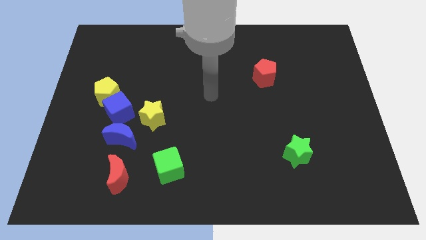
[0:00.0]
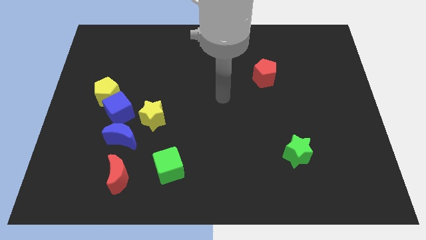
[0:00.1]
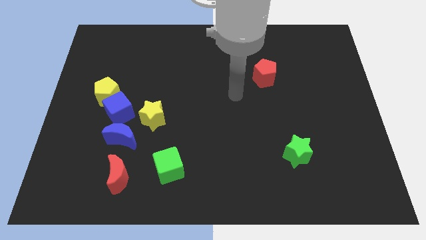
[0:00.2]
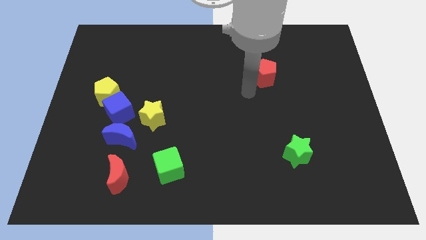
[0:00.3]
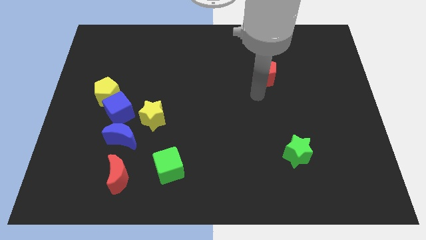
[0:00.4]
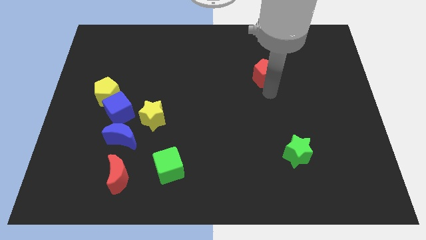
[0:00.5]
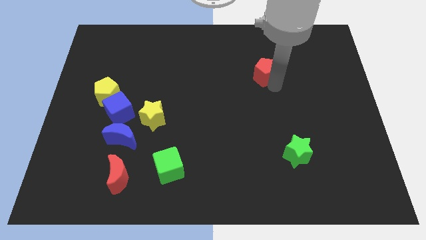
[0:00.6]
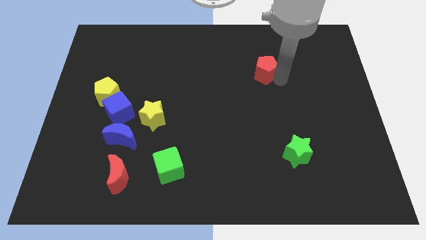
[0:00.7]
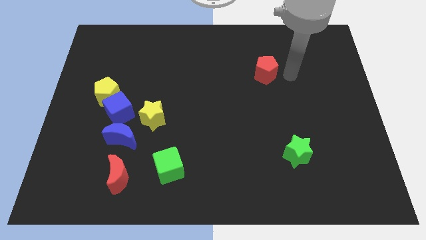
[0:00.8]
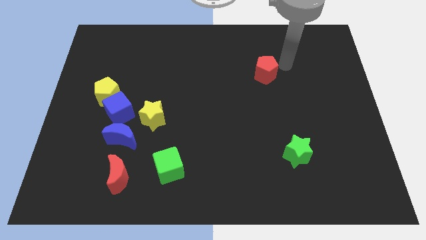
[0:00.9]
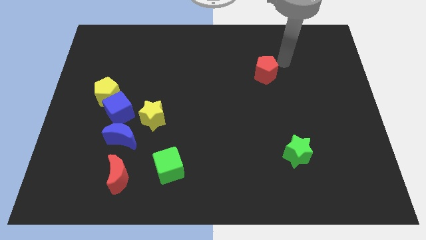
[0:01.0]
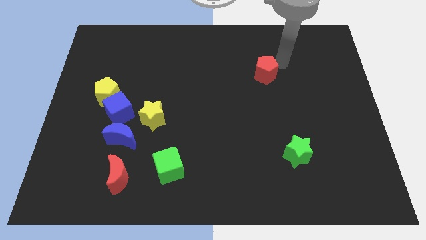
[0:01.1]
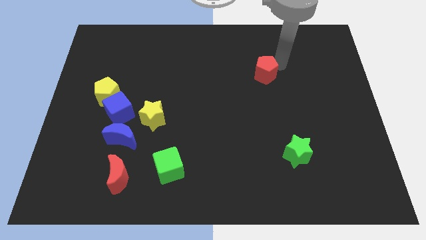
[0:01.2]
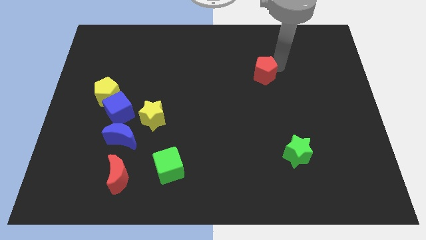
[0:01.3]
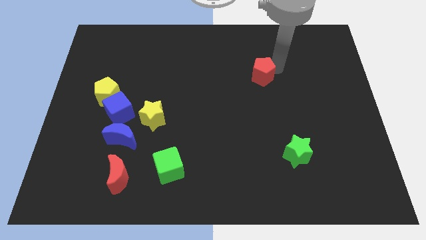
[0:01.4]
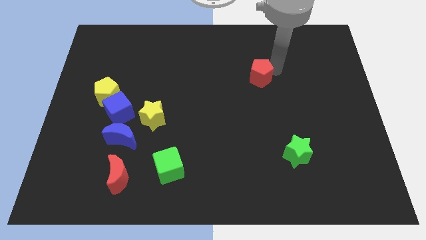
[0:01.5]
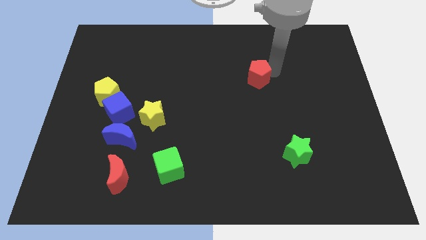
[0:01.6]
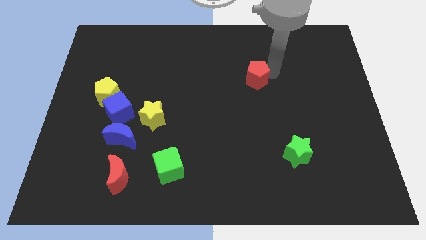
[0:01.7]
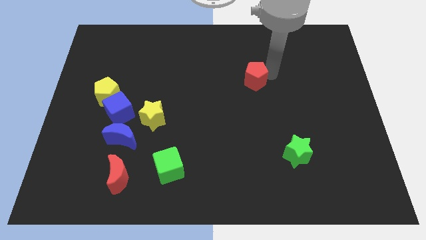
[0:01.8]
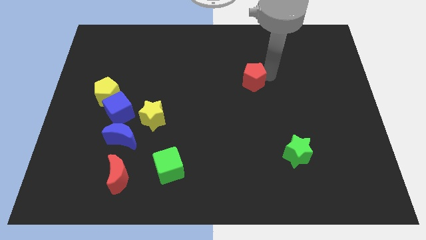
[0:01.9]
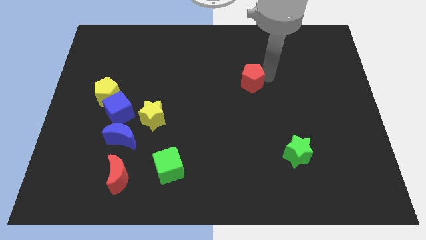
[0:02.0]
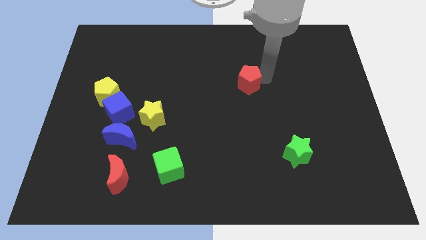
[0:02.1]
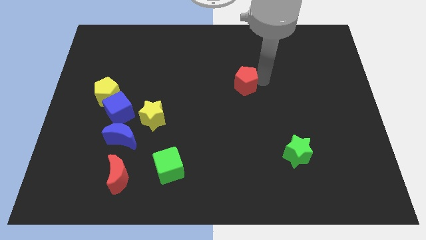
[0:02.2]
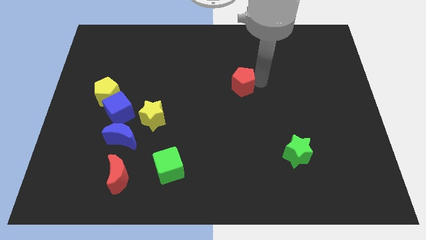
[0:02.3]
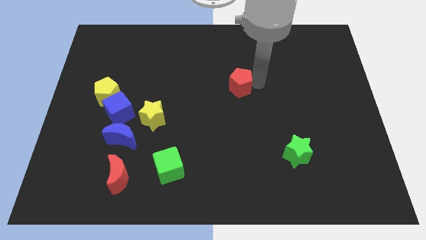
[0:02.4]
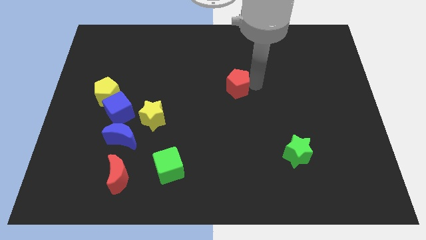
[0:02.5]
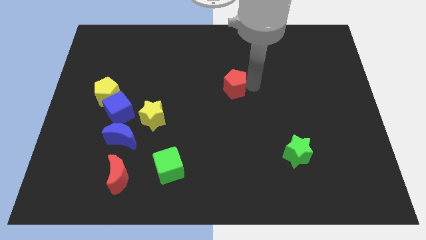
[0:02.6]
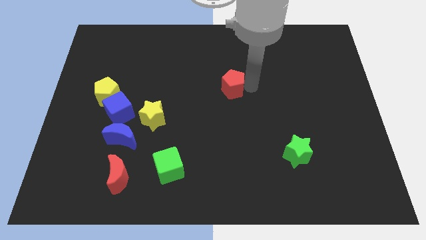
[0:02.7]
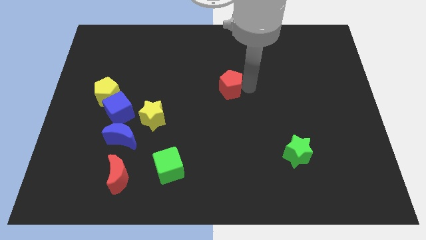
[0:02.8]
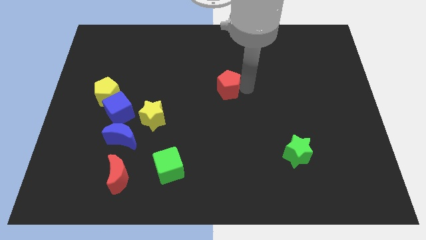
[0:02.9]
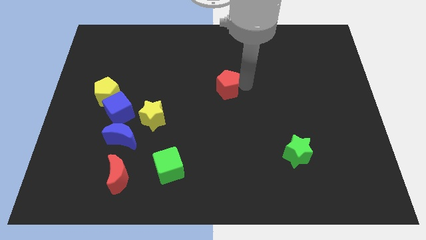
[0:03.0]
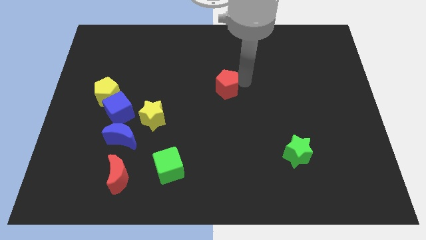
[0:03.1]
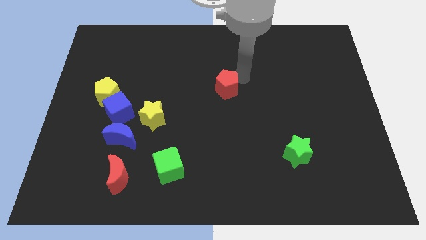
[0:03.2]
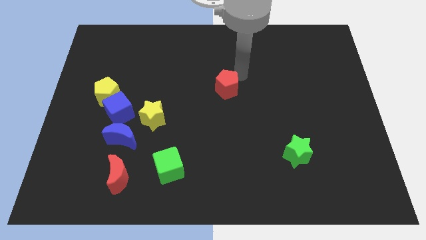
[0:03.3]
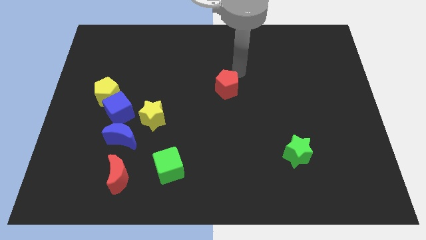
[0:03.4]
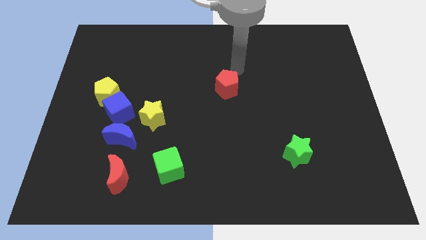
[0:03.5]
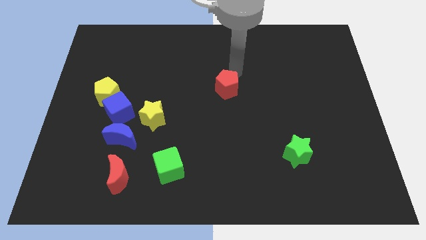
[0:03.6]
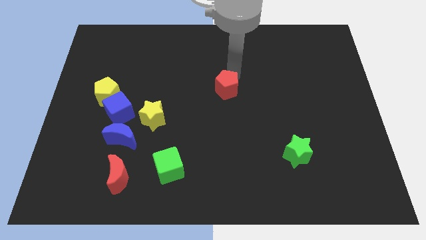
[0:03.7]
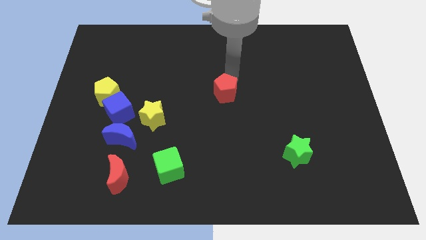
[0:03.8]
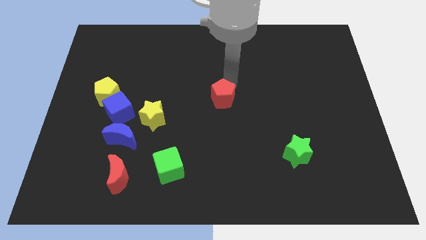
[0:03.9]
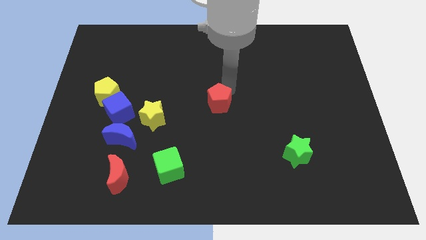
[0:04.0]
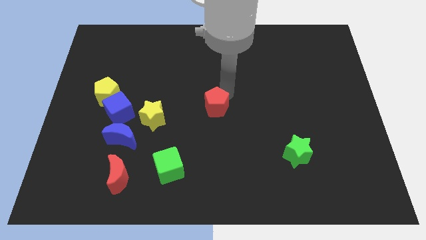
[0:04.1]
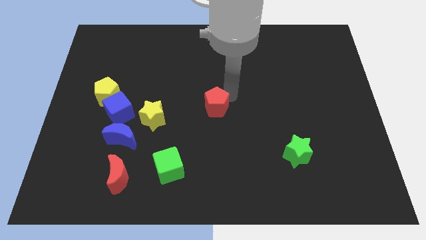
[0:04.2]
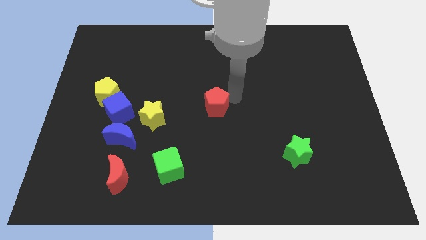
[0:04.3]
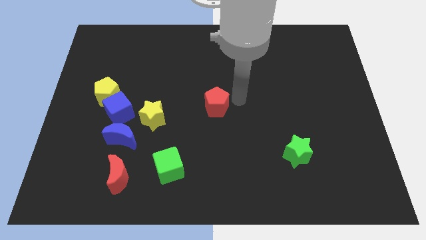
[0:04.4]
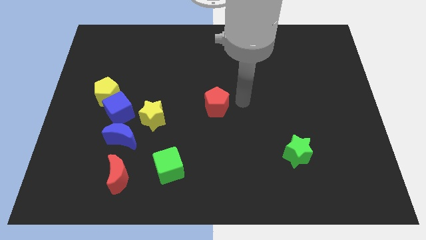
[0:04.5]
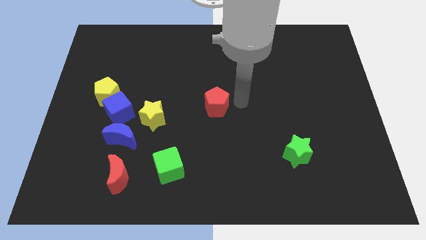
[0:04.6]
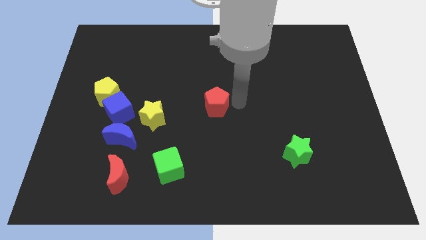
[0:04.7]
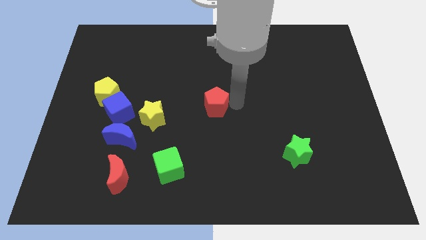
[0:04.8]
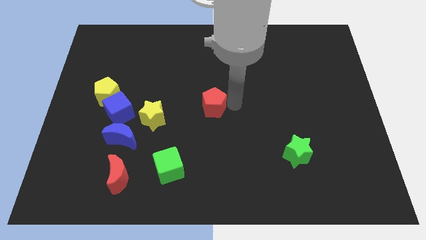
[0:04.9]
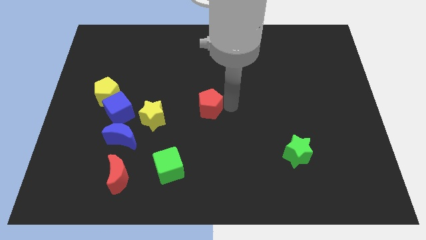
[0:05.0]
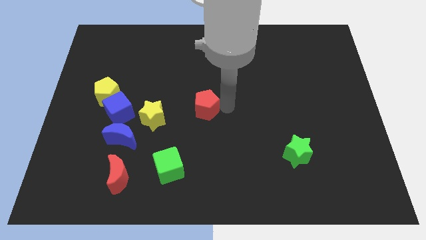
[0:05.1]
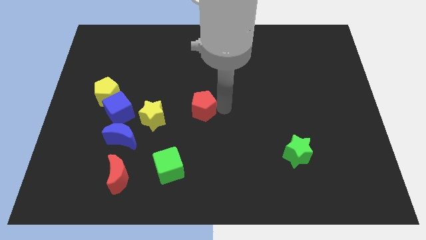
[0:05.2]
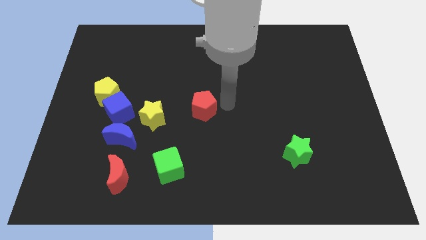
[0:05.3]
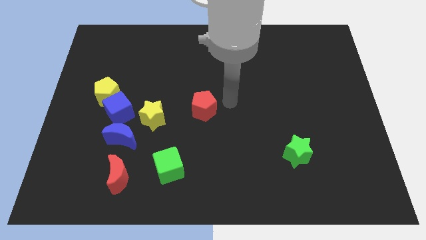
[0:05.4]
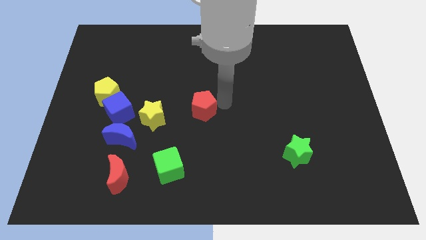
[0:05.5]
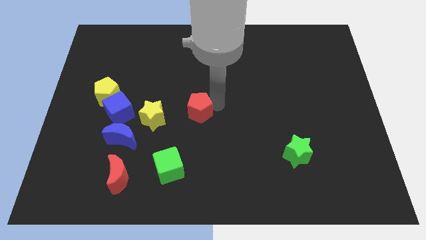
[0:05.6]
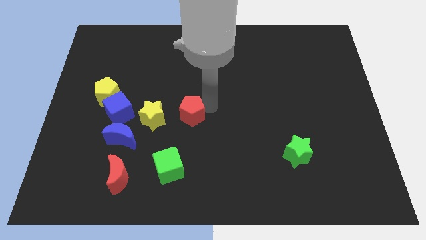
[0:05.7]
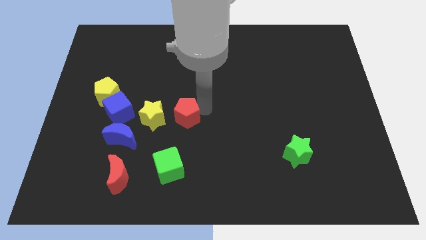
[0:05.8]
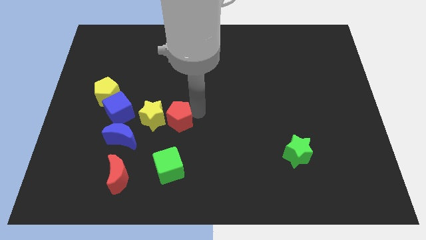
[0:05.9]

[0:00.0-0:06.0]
put the red pentagon next to the yellow star

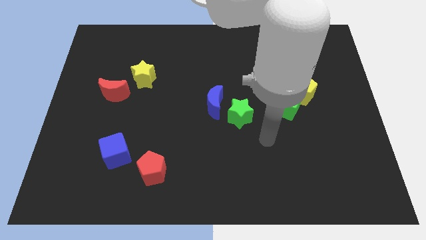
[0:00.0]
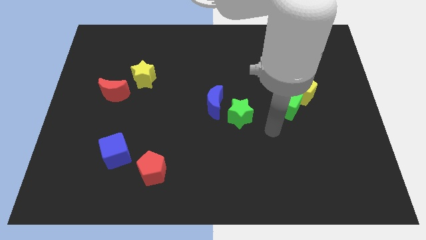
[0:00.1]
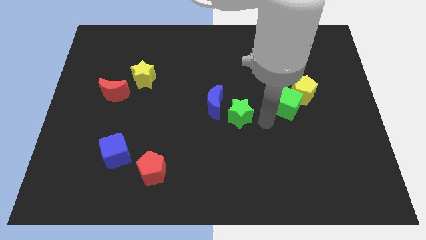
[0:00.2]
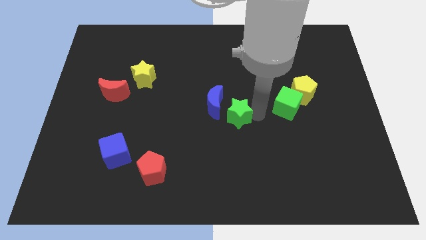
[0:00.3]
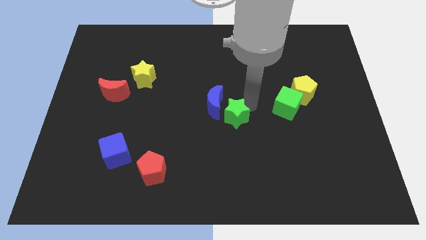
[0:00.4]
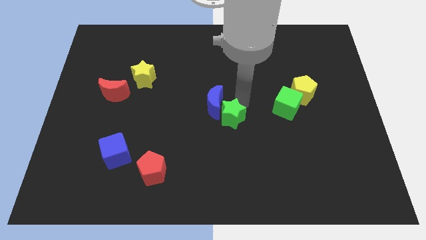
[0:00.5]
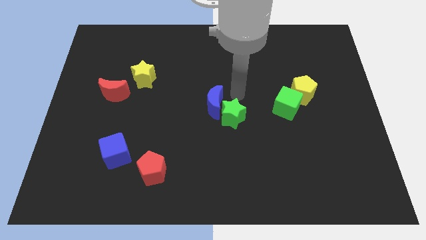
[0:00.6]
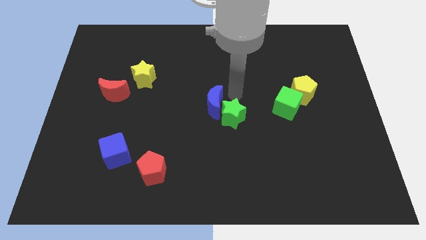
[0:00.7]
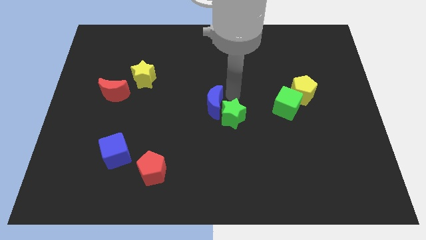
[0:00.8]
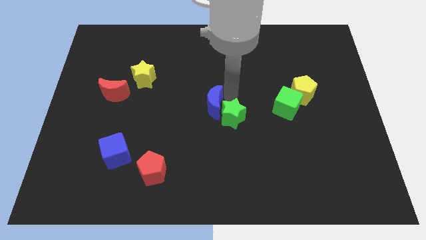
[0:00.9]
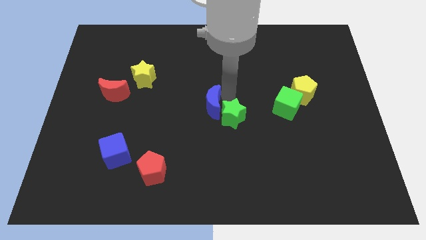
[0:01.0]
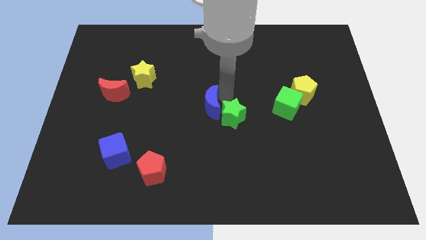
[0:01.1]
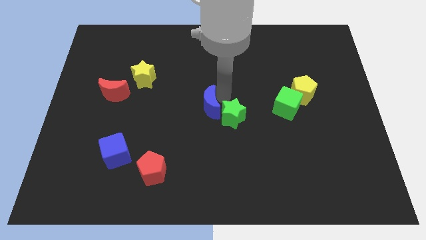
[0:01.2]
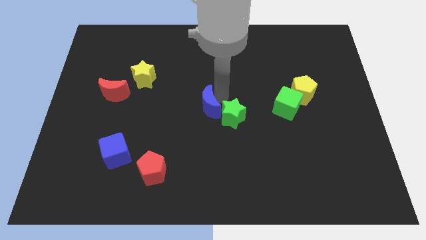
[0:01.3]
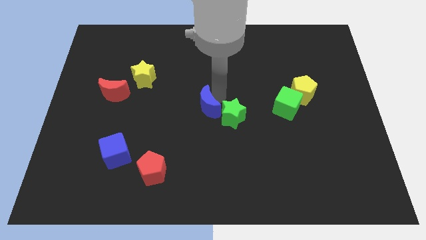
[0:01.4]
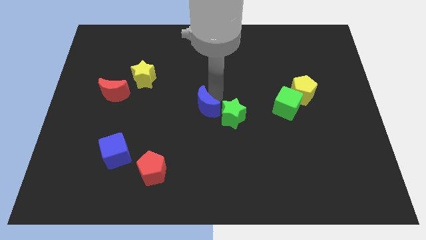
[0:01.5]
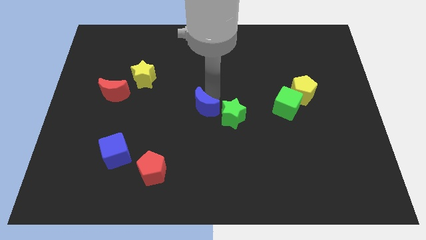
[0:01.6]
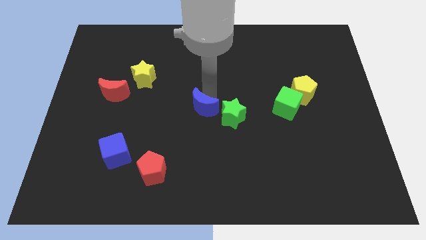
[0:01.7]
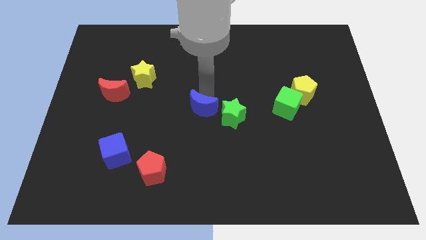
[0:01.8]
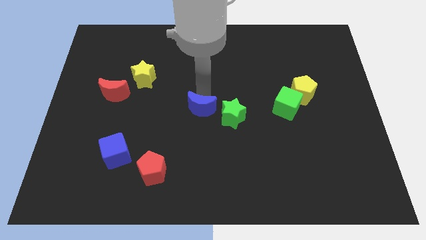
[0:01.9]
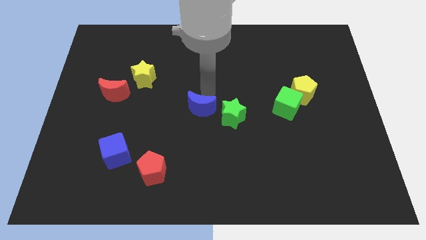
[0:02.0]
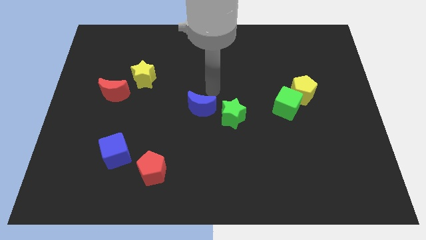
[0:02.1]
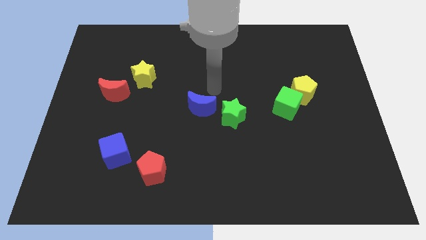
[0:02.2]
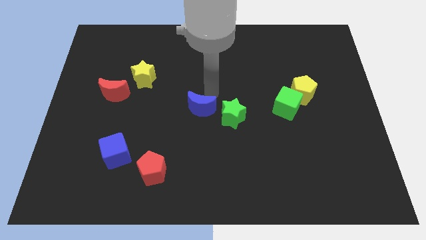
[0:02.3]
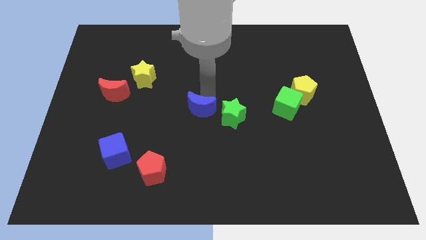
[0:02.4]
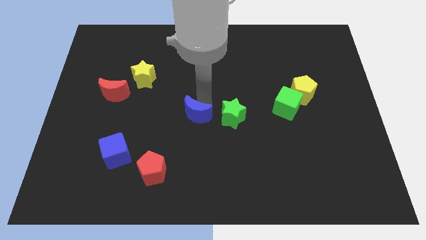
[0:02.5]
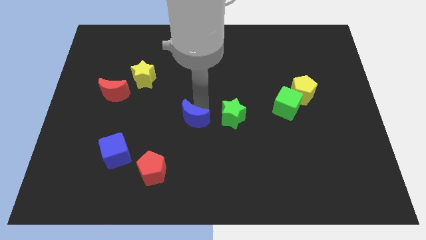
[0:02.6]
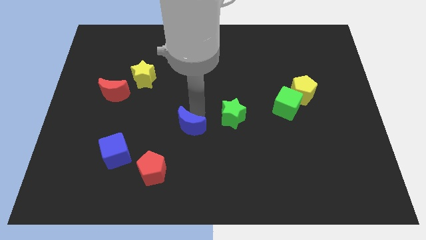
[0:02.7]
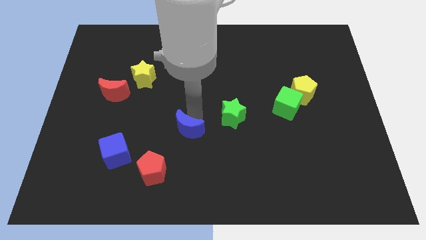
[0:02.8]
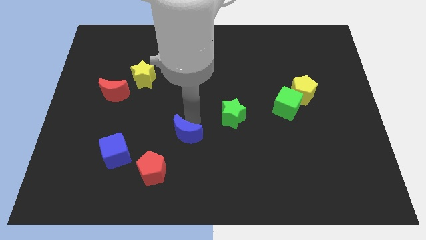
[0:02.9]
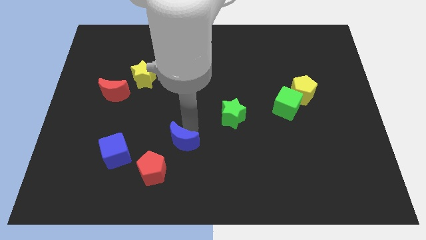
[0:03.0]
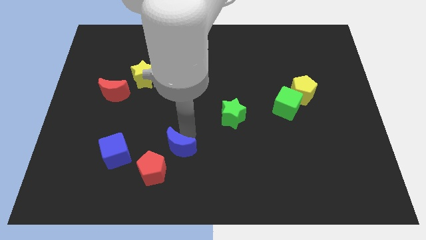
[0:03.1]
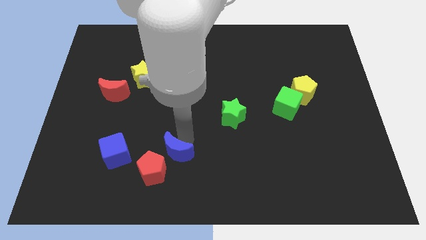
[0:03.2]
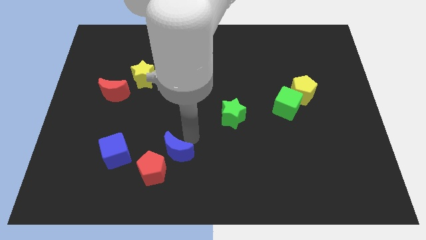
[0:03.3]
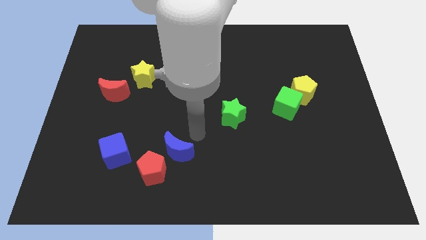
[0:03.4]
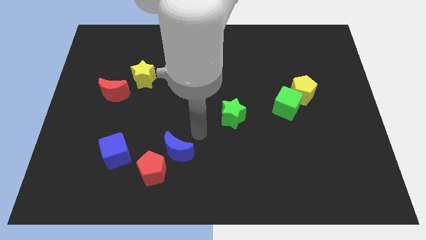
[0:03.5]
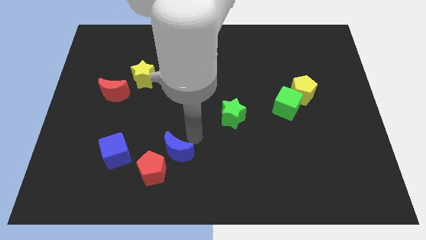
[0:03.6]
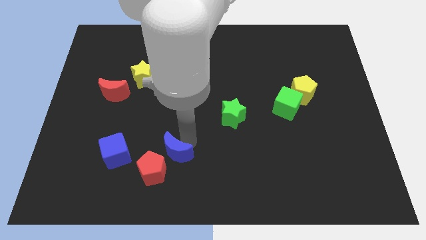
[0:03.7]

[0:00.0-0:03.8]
push the blue moon close to the red pentagon
